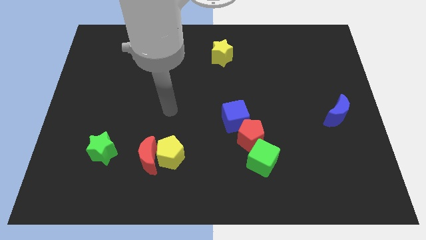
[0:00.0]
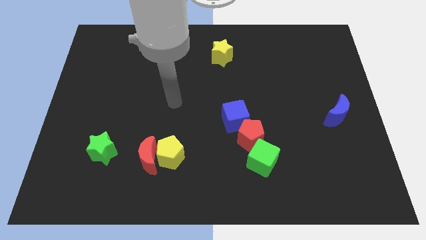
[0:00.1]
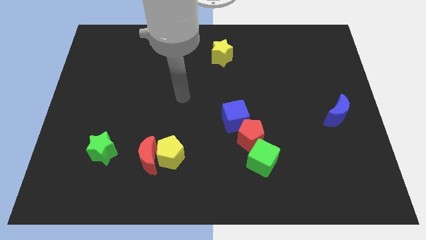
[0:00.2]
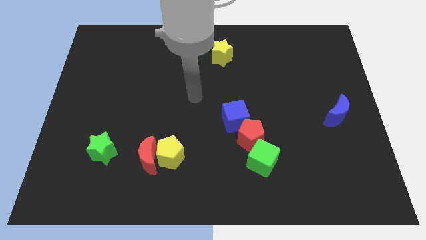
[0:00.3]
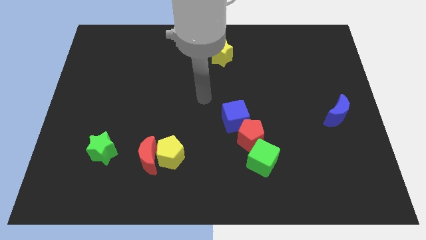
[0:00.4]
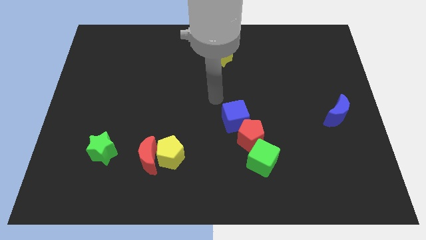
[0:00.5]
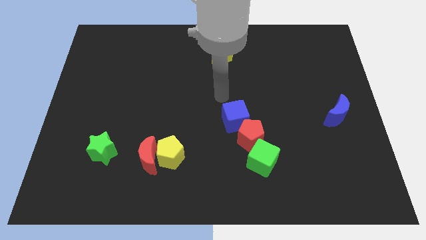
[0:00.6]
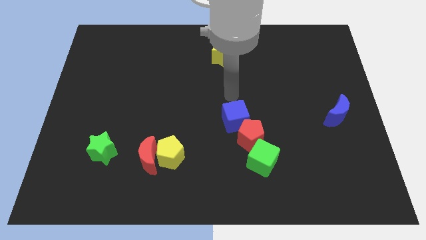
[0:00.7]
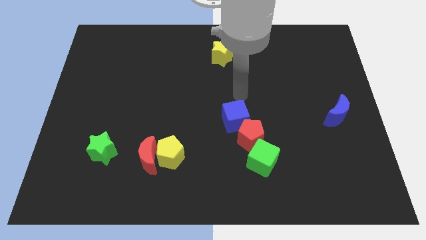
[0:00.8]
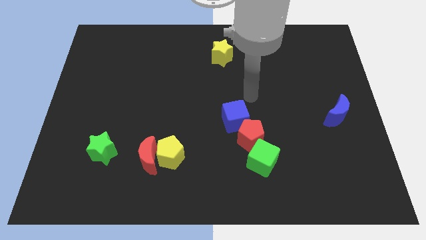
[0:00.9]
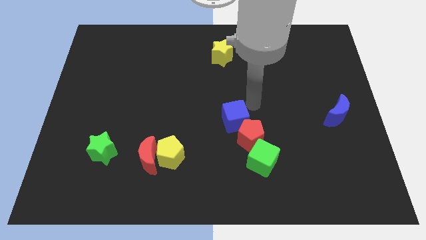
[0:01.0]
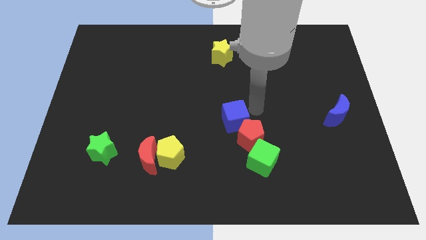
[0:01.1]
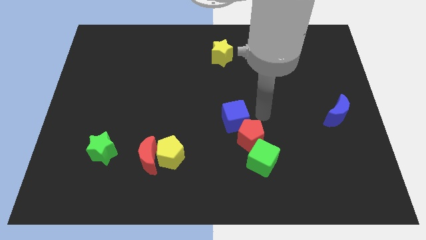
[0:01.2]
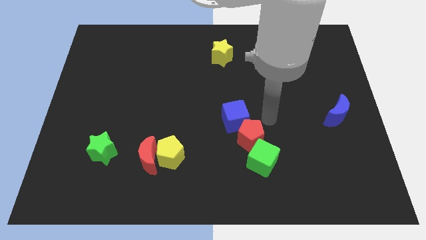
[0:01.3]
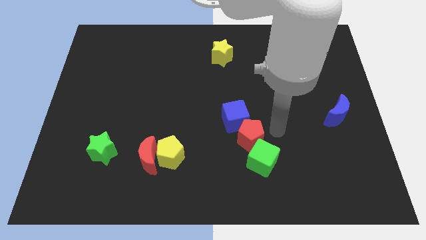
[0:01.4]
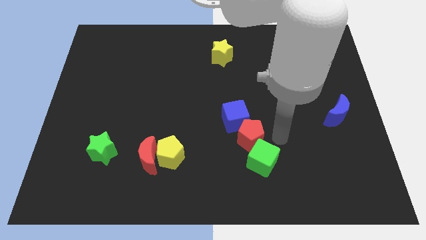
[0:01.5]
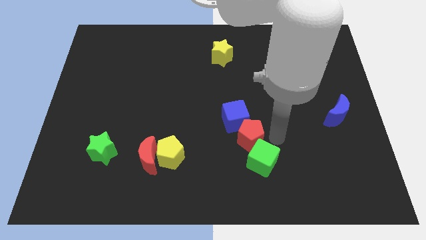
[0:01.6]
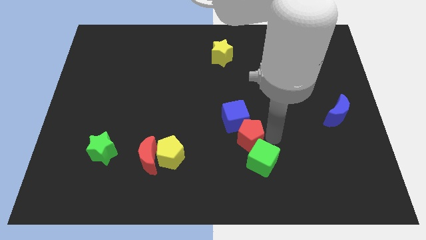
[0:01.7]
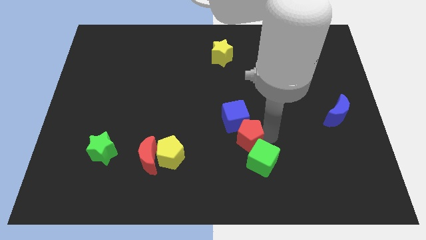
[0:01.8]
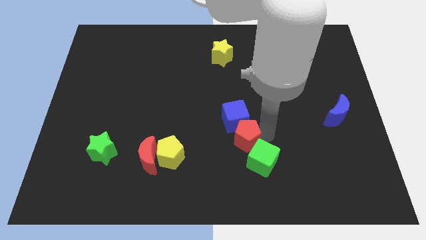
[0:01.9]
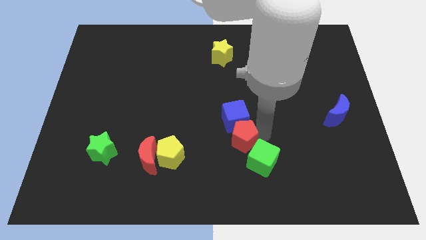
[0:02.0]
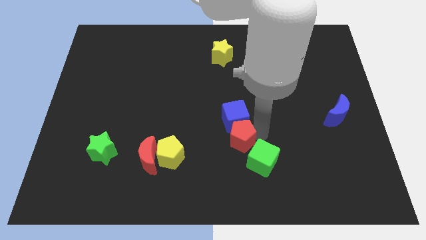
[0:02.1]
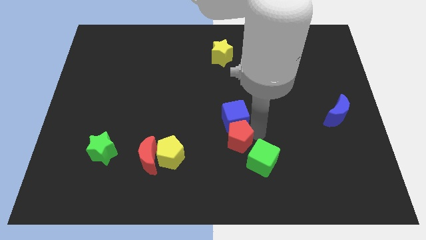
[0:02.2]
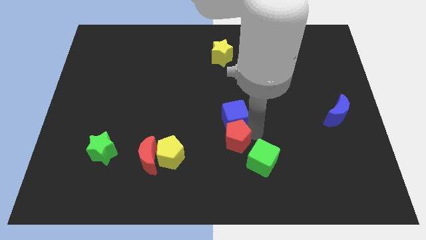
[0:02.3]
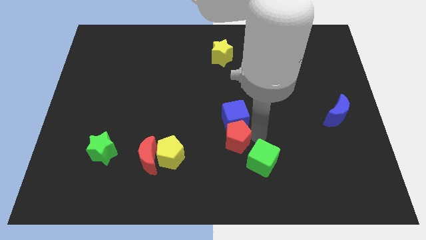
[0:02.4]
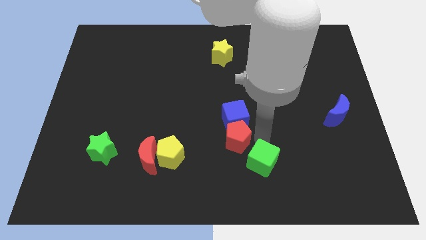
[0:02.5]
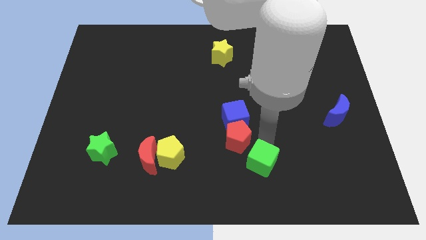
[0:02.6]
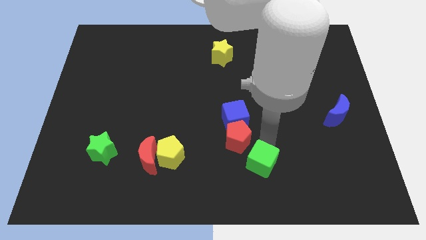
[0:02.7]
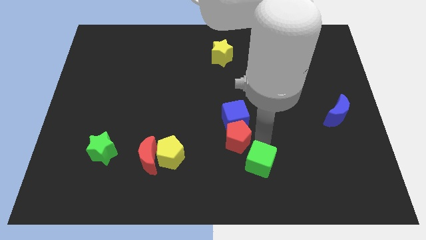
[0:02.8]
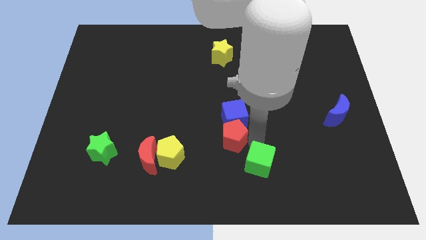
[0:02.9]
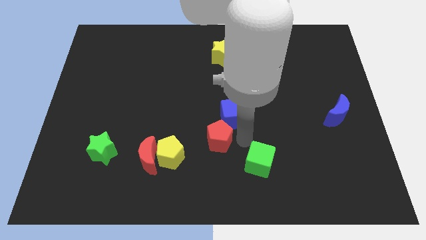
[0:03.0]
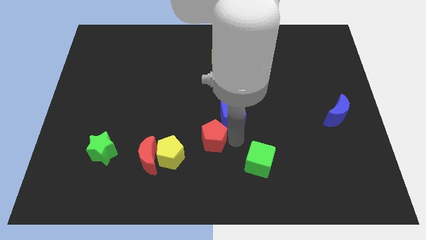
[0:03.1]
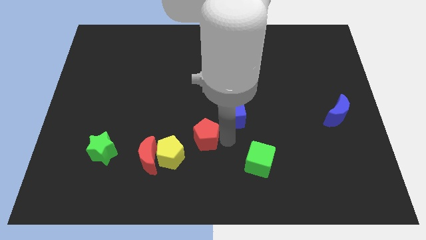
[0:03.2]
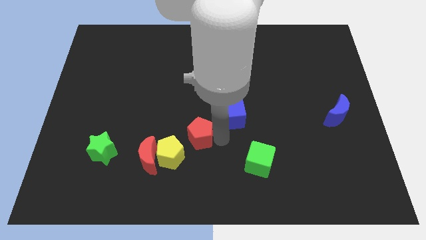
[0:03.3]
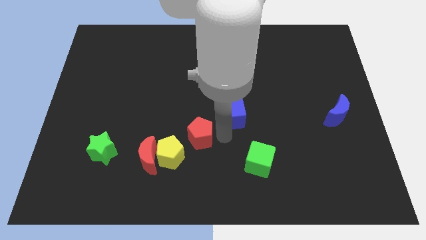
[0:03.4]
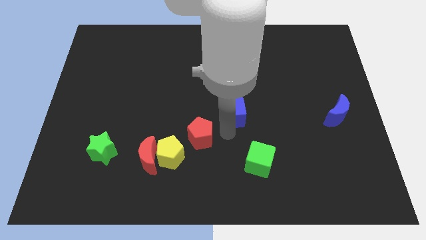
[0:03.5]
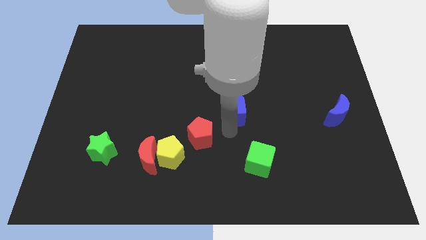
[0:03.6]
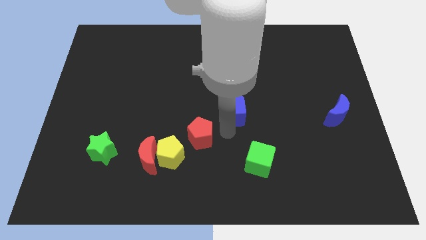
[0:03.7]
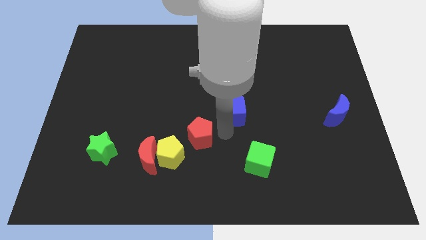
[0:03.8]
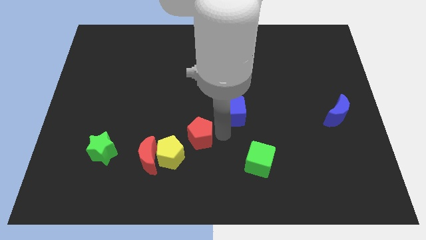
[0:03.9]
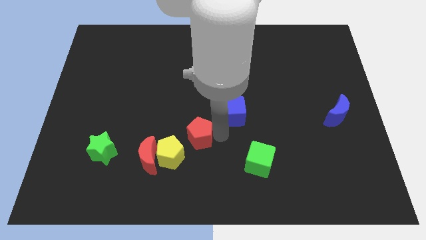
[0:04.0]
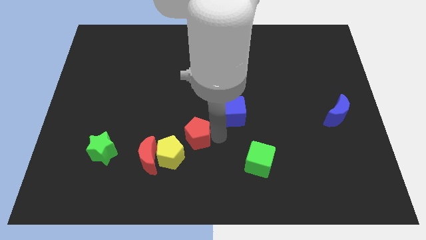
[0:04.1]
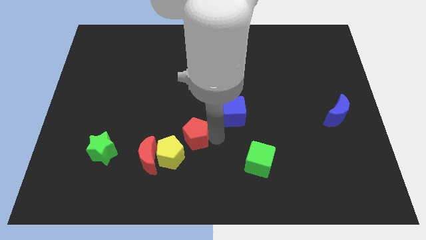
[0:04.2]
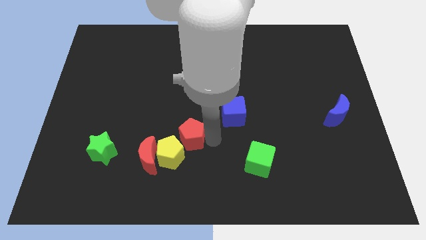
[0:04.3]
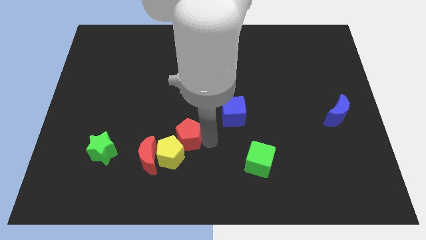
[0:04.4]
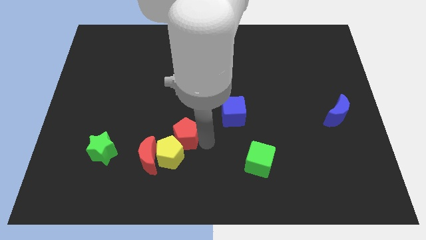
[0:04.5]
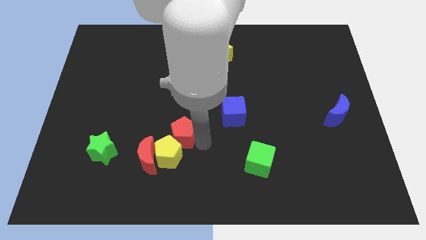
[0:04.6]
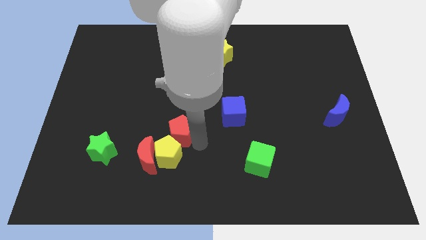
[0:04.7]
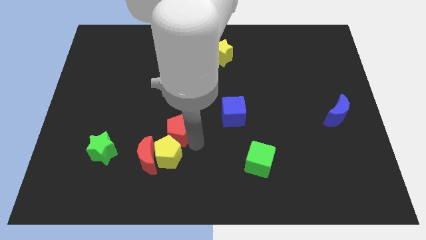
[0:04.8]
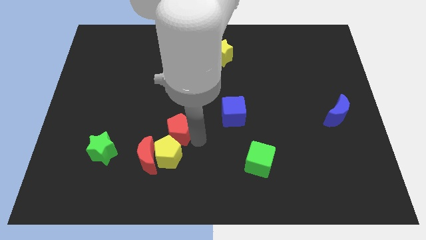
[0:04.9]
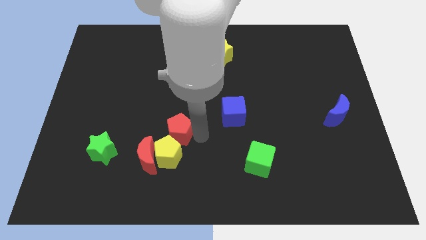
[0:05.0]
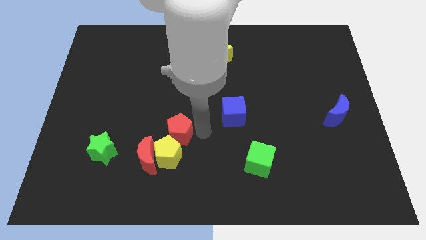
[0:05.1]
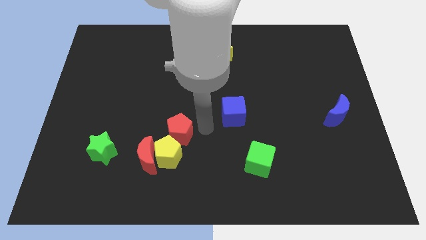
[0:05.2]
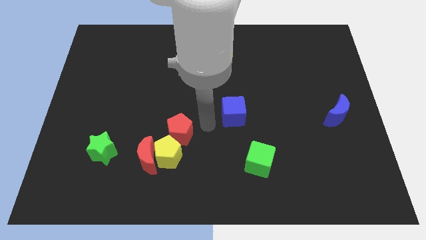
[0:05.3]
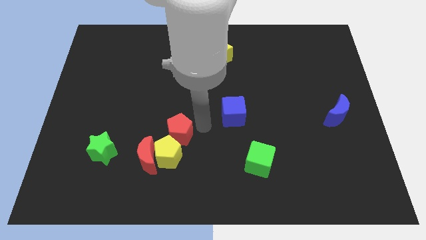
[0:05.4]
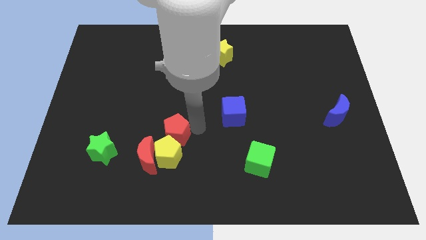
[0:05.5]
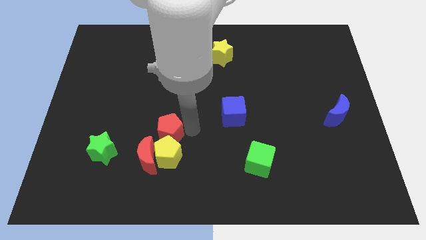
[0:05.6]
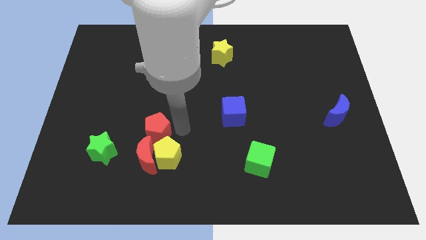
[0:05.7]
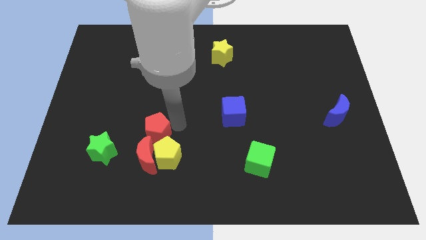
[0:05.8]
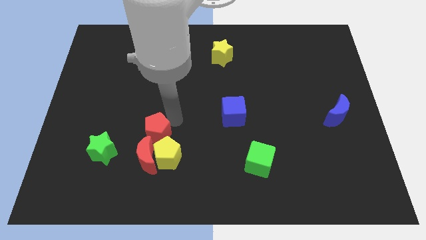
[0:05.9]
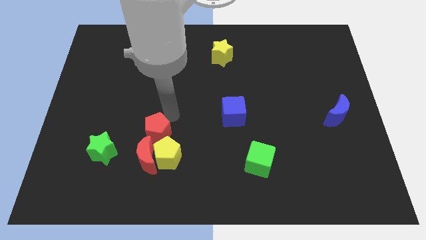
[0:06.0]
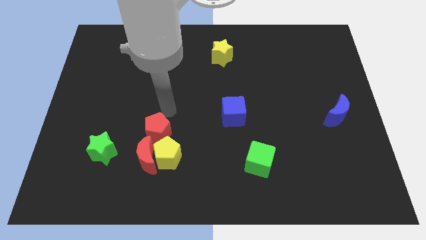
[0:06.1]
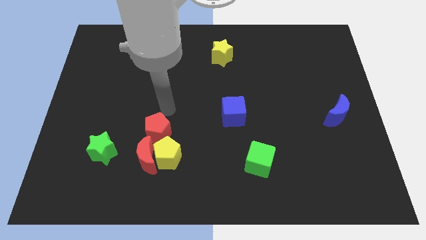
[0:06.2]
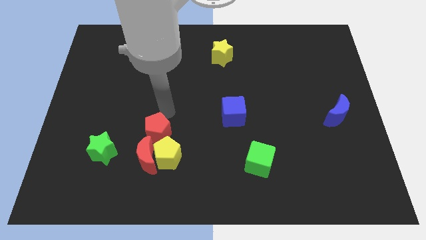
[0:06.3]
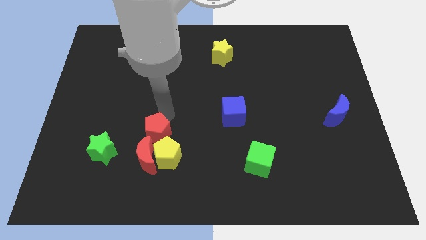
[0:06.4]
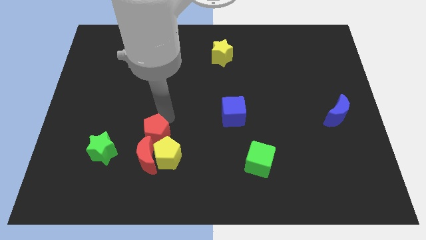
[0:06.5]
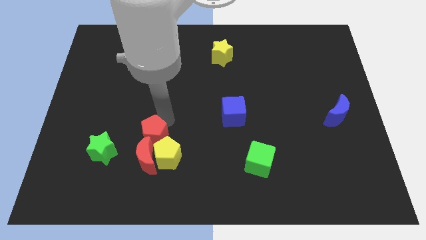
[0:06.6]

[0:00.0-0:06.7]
slide the red pentagon towards the red moon
